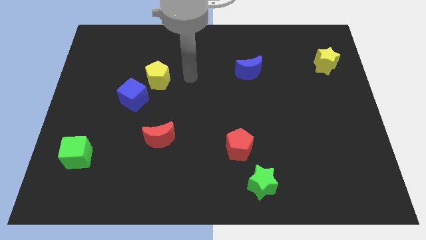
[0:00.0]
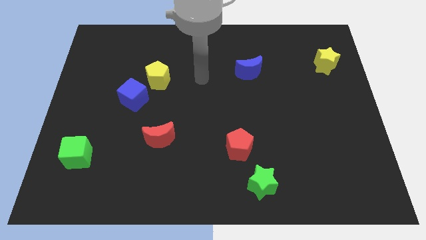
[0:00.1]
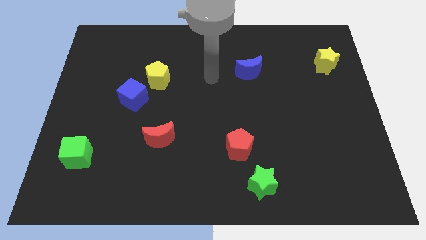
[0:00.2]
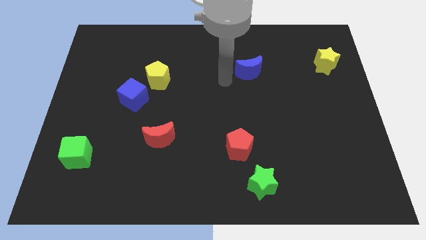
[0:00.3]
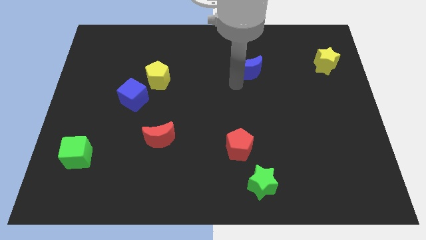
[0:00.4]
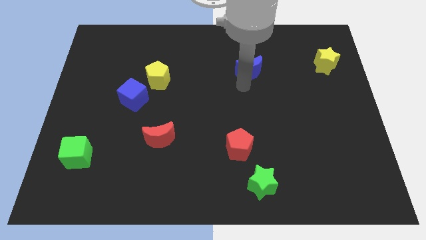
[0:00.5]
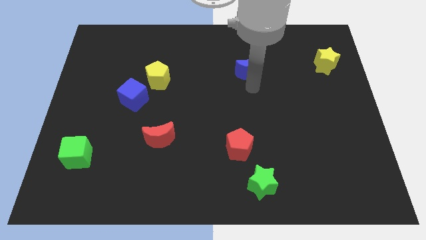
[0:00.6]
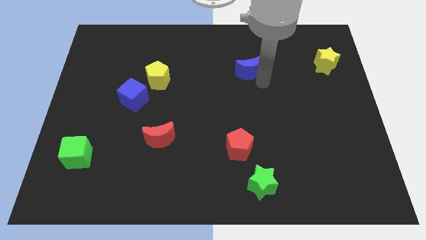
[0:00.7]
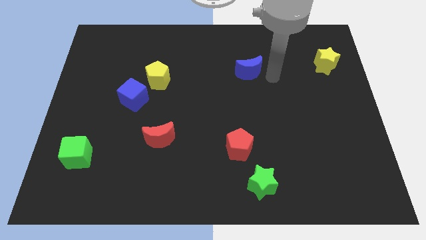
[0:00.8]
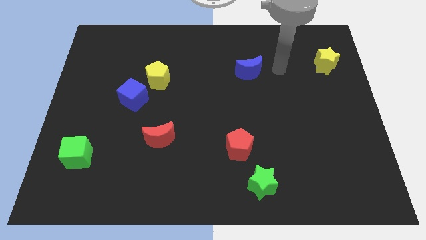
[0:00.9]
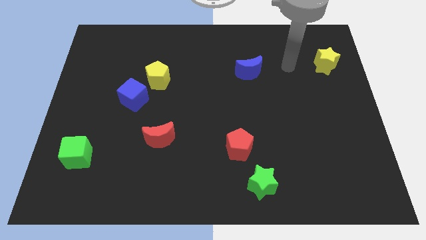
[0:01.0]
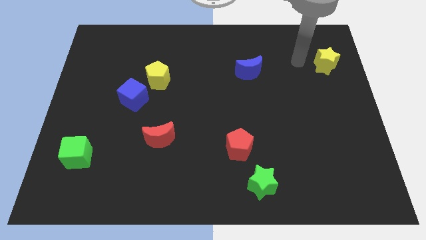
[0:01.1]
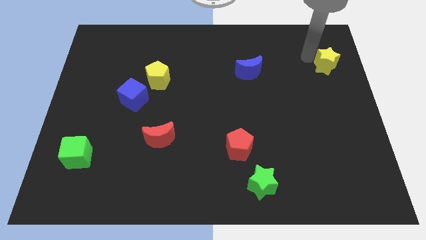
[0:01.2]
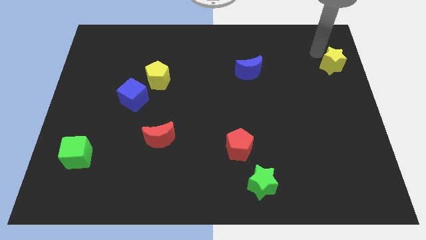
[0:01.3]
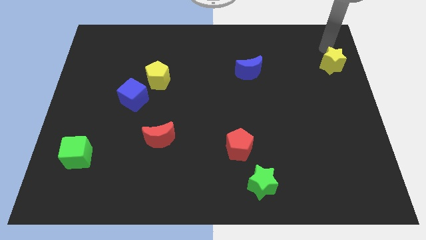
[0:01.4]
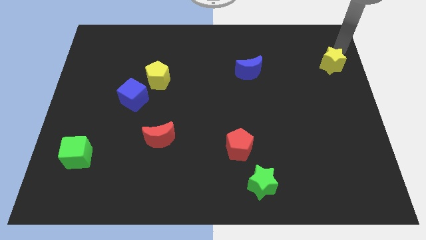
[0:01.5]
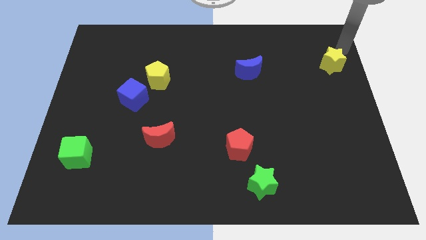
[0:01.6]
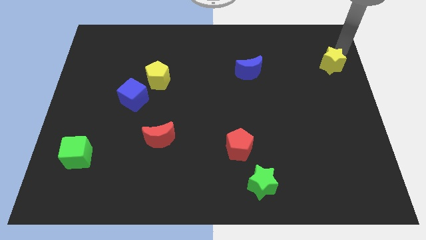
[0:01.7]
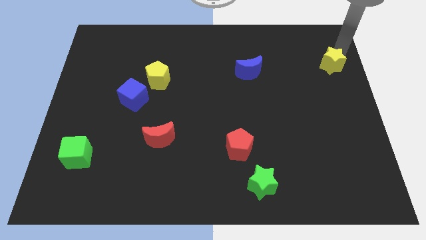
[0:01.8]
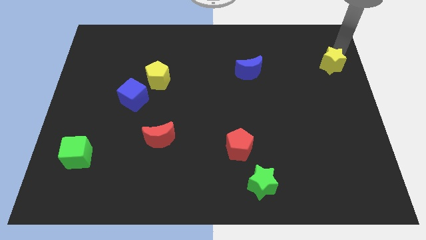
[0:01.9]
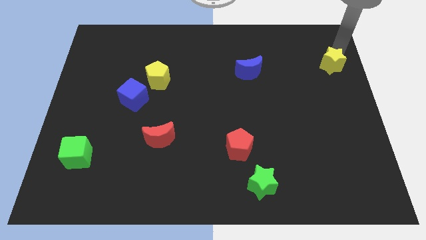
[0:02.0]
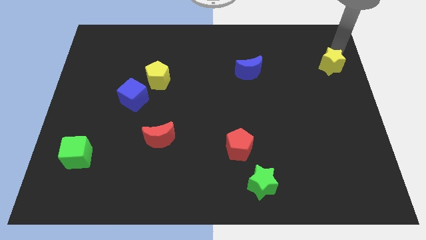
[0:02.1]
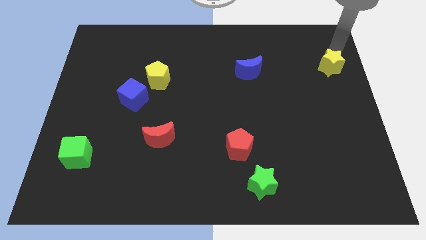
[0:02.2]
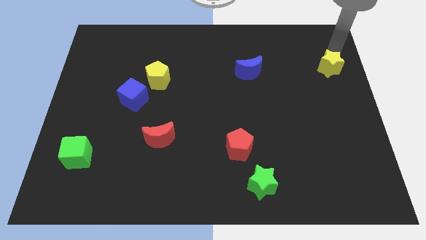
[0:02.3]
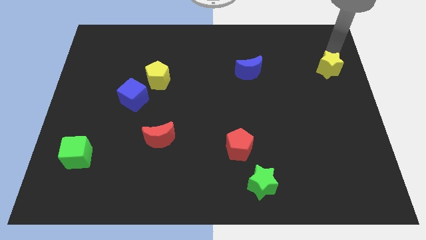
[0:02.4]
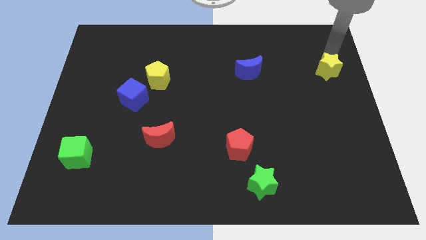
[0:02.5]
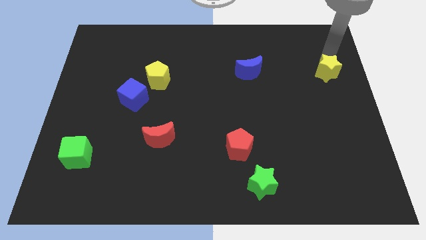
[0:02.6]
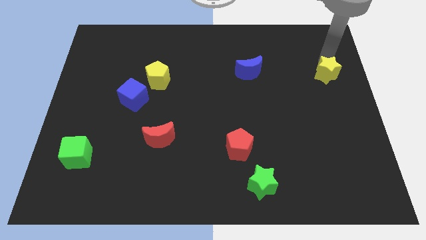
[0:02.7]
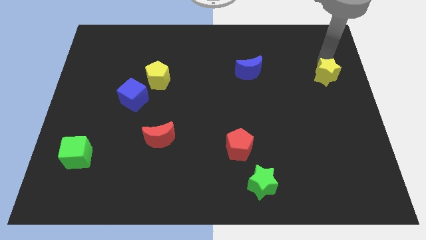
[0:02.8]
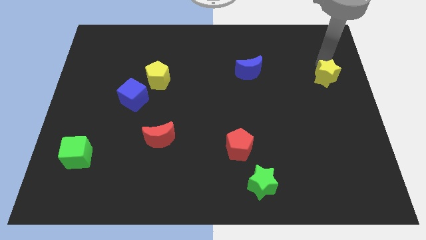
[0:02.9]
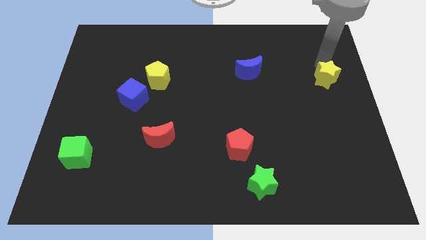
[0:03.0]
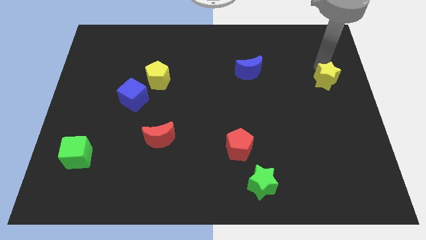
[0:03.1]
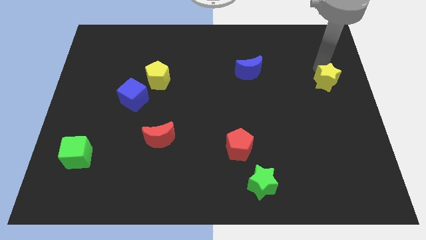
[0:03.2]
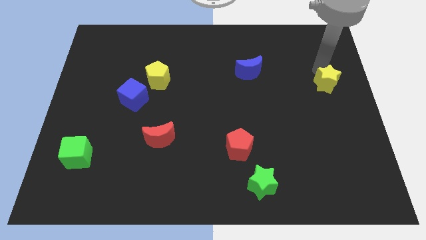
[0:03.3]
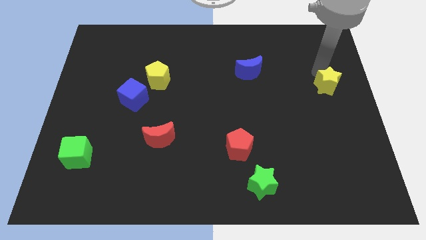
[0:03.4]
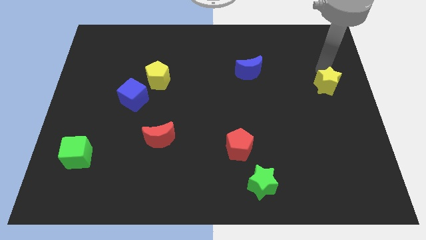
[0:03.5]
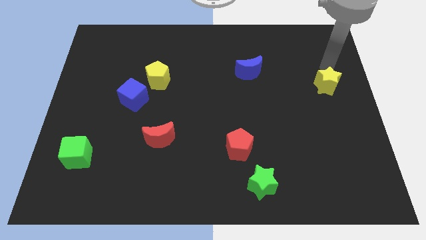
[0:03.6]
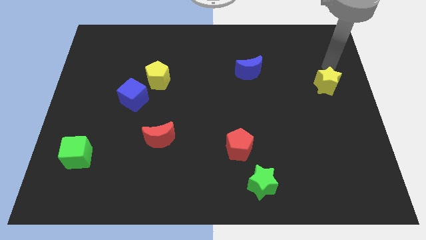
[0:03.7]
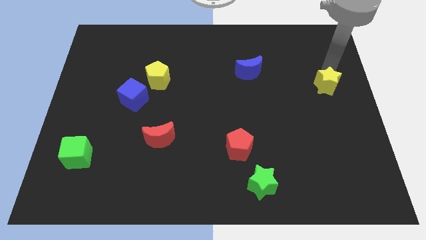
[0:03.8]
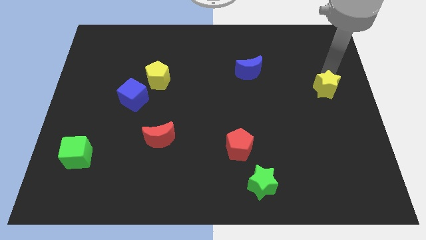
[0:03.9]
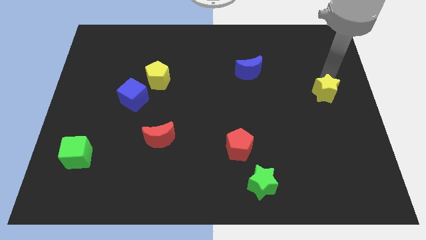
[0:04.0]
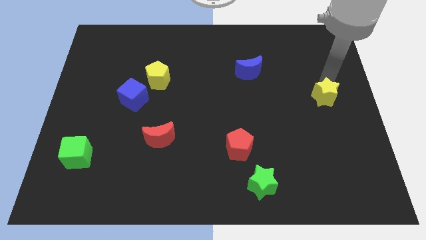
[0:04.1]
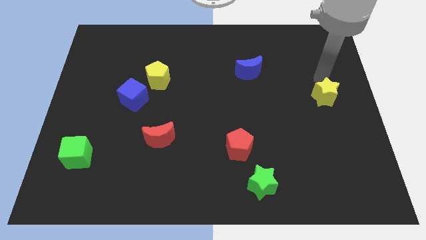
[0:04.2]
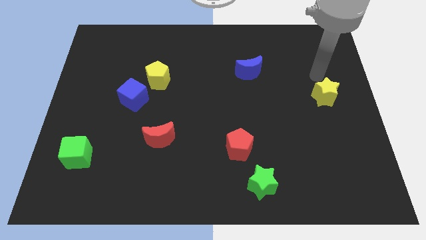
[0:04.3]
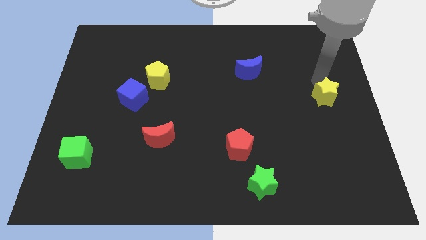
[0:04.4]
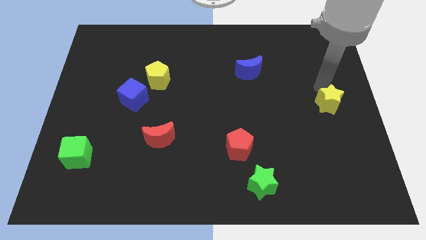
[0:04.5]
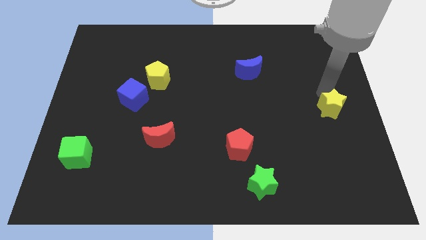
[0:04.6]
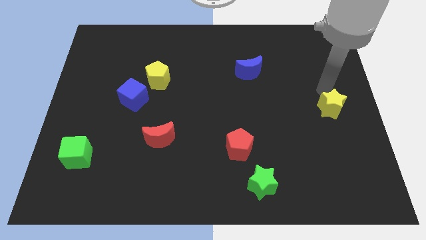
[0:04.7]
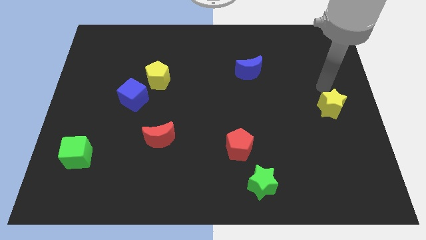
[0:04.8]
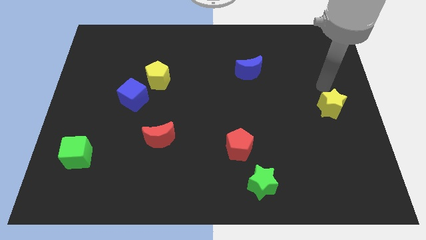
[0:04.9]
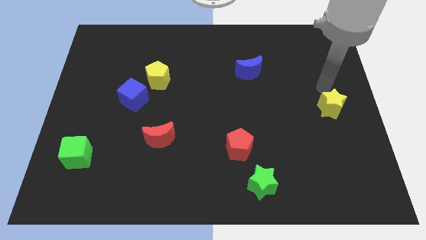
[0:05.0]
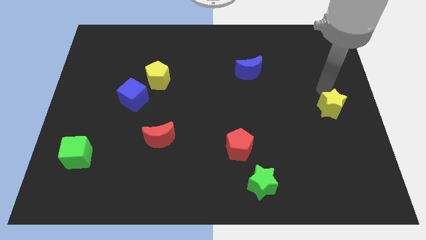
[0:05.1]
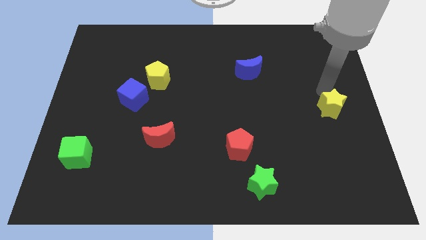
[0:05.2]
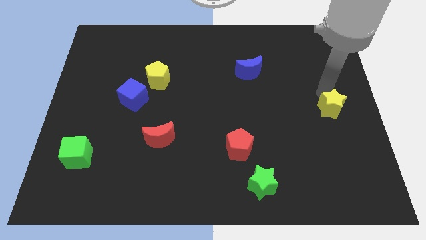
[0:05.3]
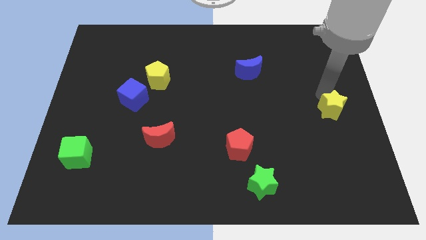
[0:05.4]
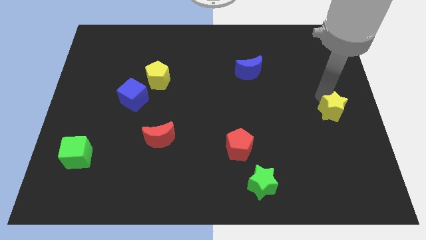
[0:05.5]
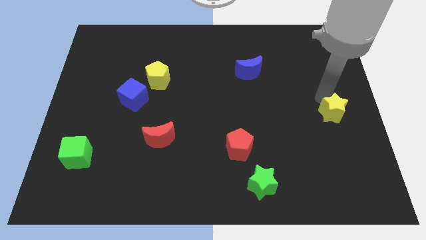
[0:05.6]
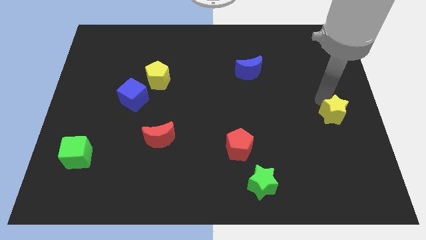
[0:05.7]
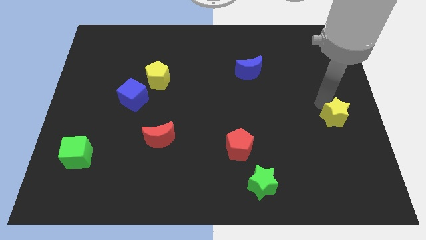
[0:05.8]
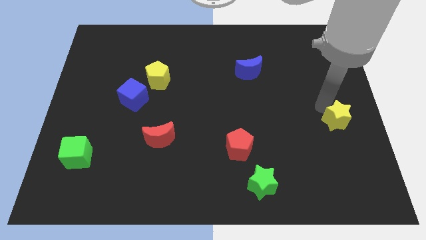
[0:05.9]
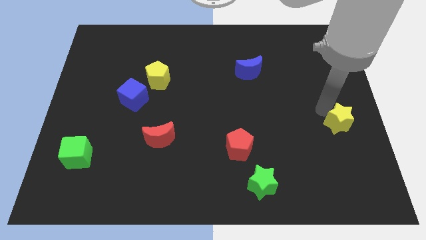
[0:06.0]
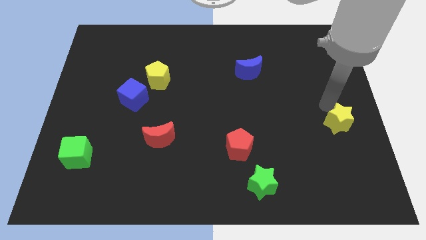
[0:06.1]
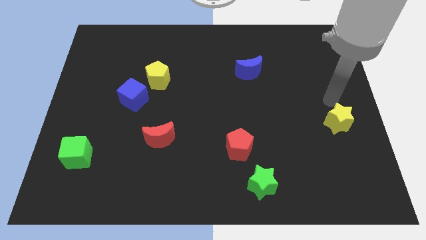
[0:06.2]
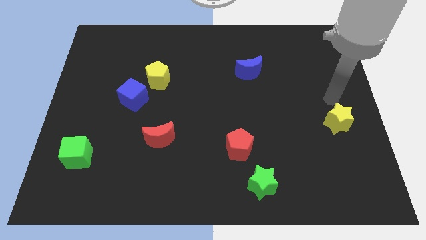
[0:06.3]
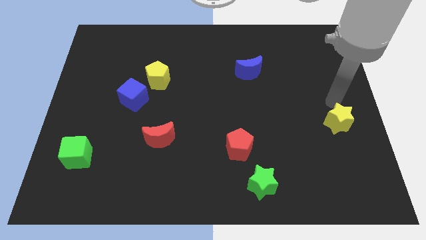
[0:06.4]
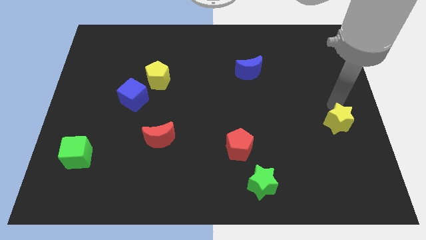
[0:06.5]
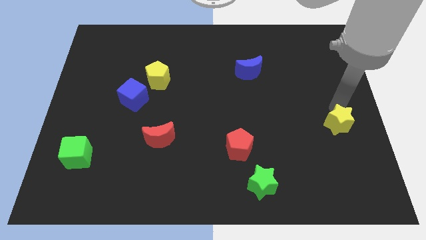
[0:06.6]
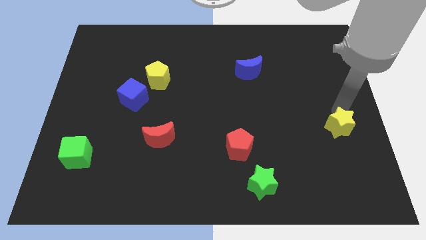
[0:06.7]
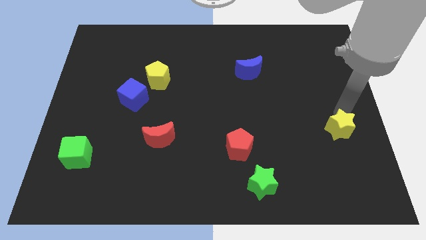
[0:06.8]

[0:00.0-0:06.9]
move the yellow star downwards

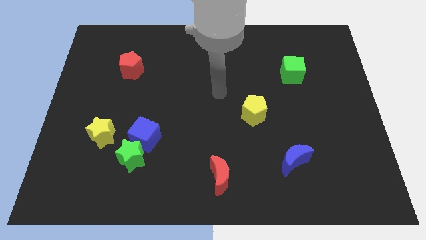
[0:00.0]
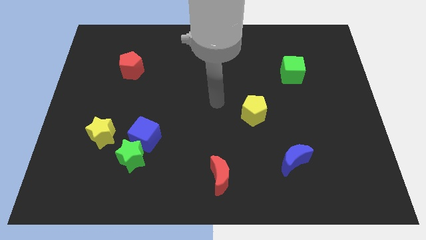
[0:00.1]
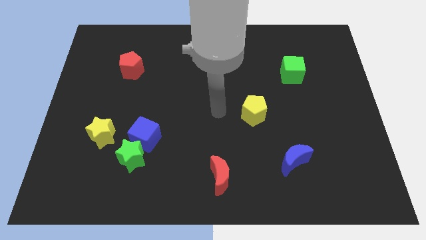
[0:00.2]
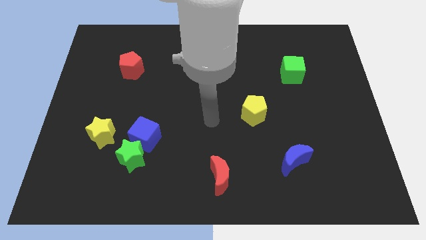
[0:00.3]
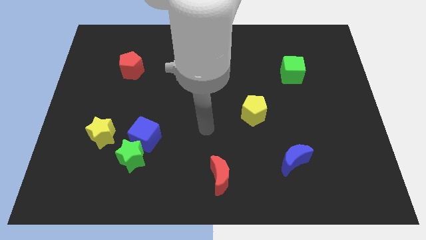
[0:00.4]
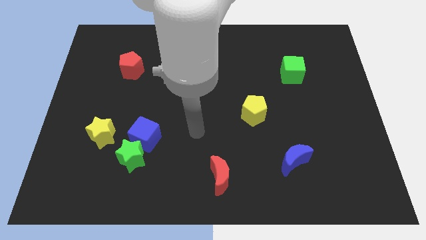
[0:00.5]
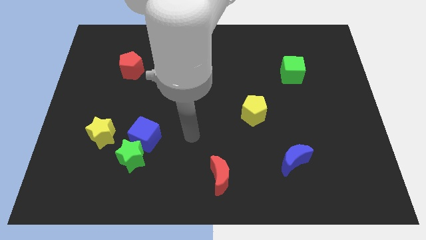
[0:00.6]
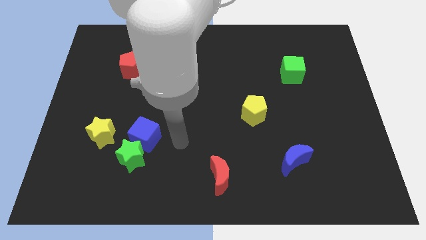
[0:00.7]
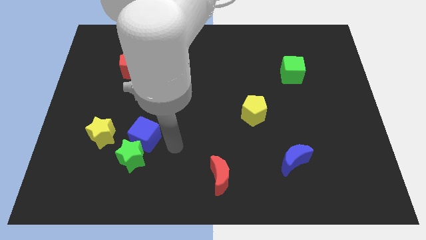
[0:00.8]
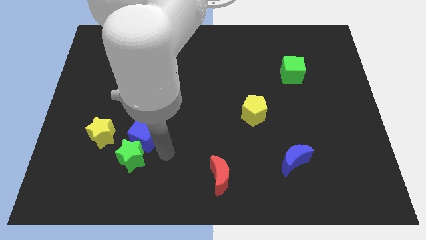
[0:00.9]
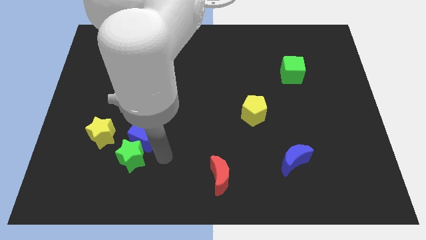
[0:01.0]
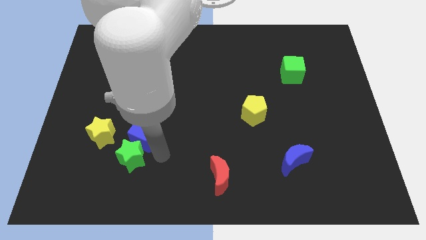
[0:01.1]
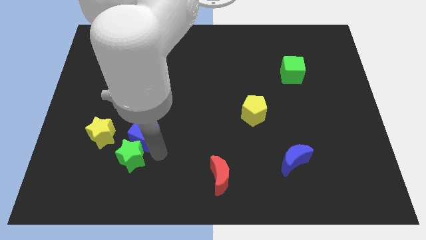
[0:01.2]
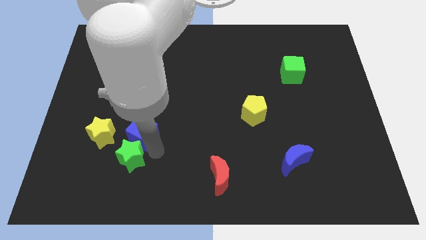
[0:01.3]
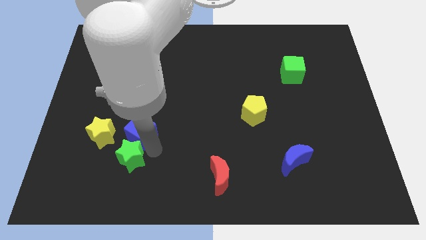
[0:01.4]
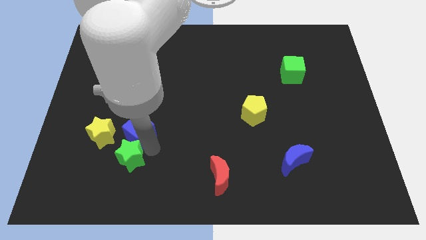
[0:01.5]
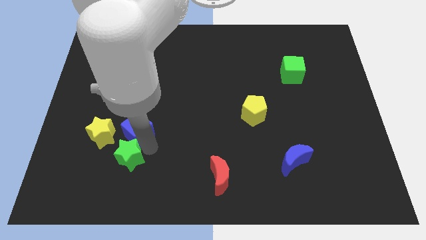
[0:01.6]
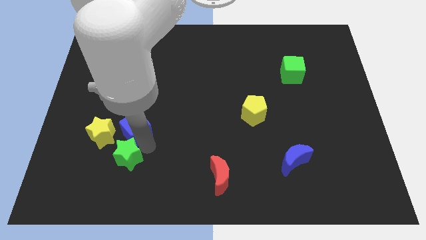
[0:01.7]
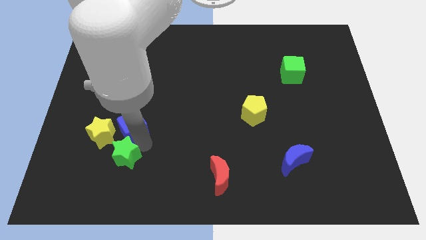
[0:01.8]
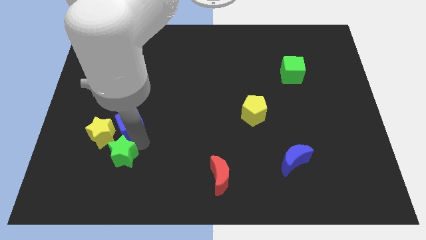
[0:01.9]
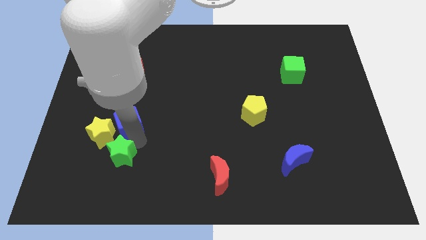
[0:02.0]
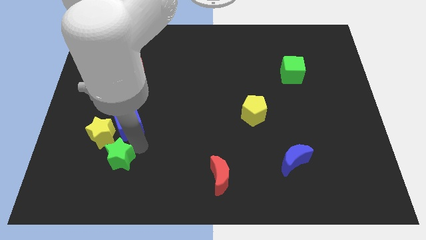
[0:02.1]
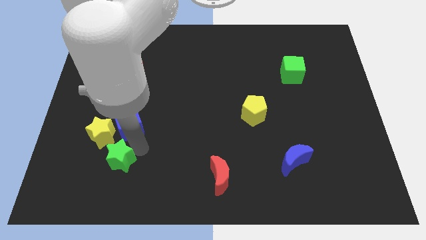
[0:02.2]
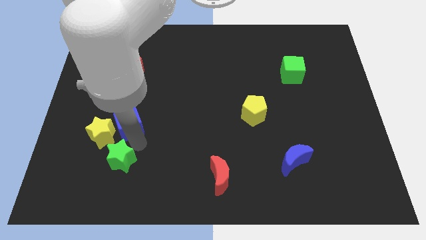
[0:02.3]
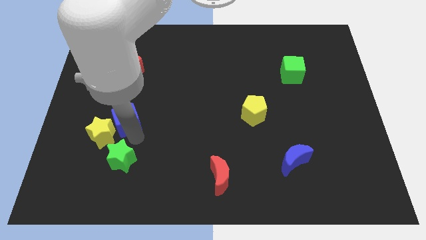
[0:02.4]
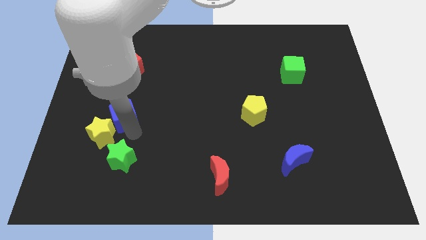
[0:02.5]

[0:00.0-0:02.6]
move the blue cube upwards and to the left slightly
